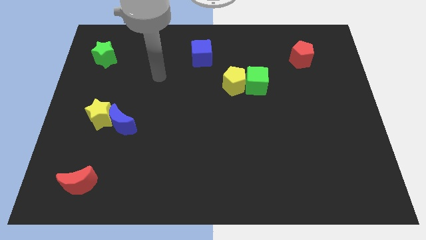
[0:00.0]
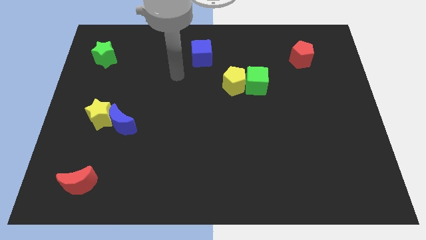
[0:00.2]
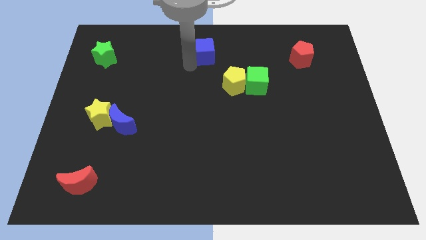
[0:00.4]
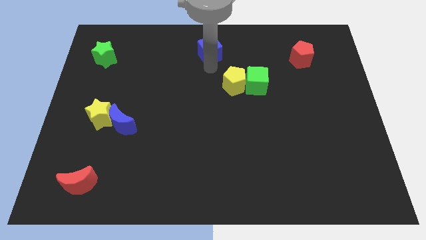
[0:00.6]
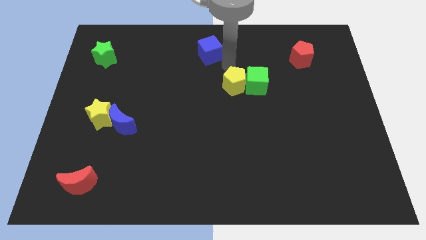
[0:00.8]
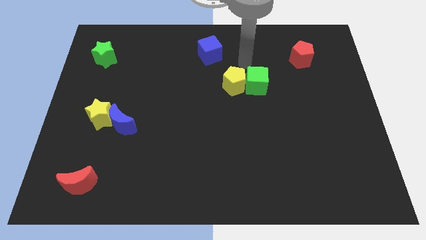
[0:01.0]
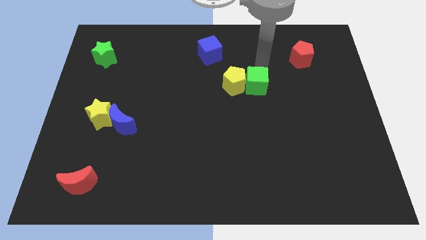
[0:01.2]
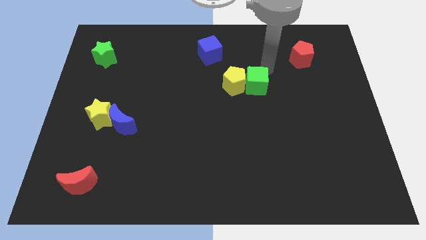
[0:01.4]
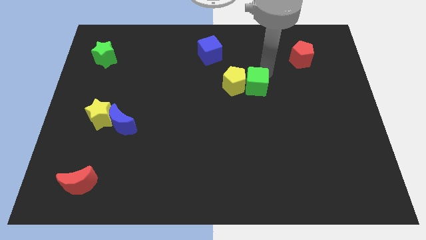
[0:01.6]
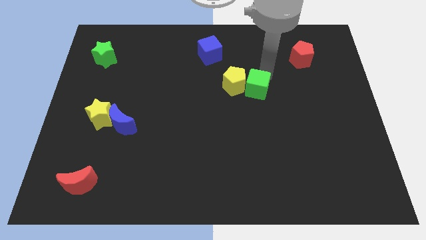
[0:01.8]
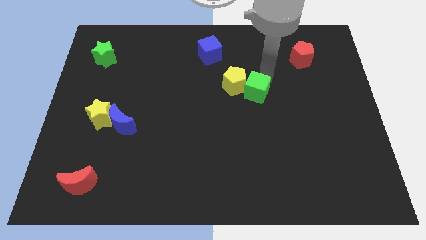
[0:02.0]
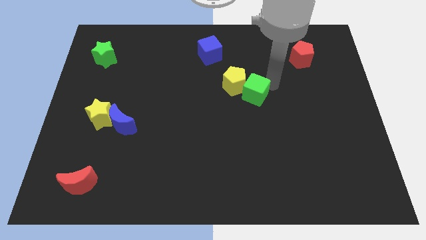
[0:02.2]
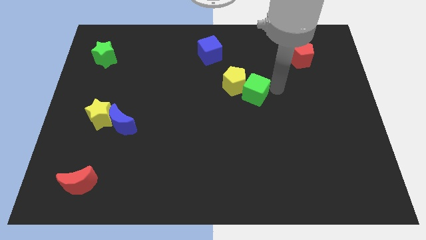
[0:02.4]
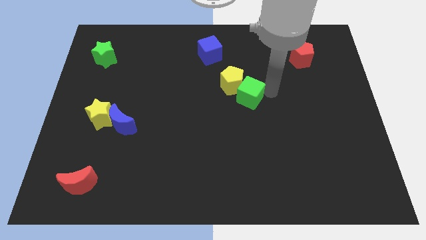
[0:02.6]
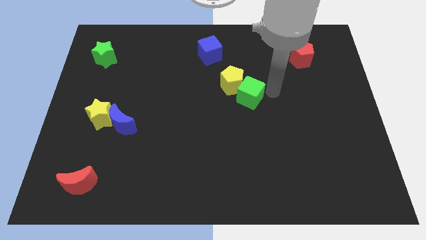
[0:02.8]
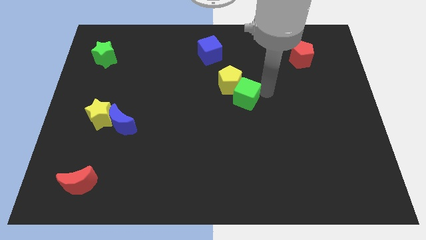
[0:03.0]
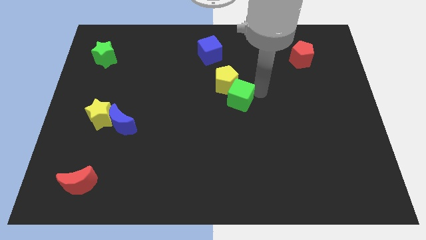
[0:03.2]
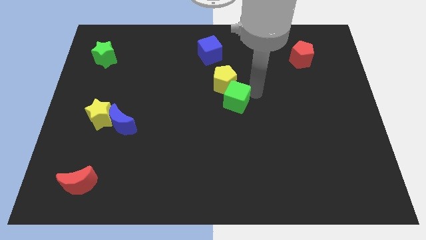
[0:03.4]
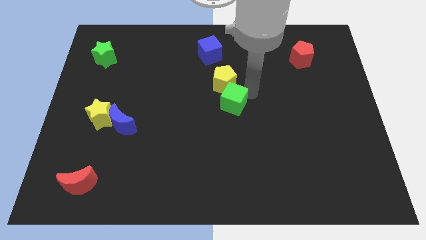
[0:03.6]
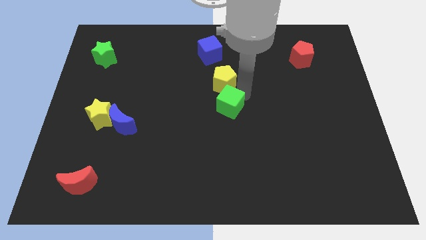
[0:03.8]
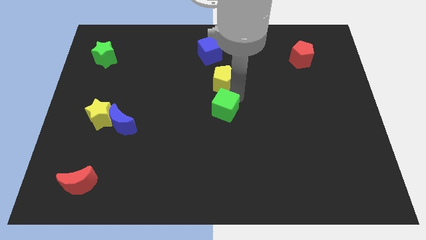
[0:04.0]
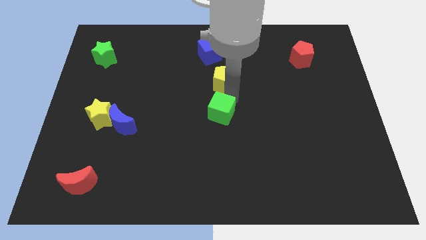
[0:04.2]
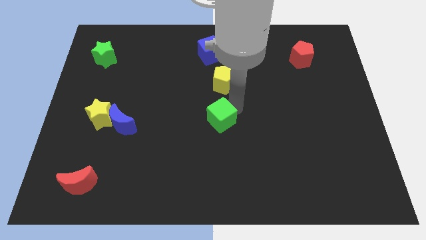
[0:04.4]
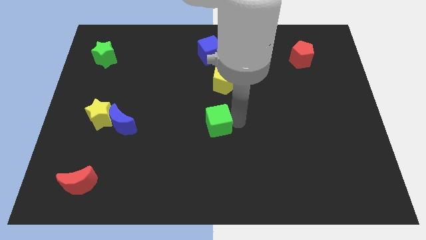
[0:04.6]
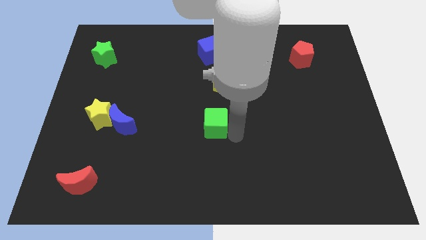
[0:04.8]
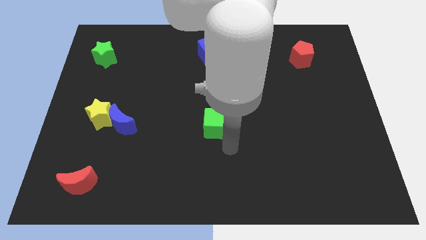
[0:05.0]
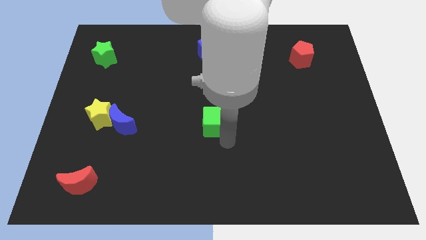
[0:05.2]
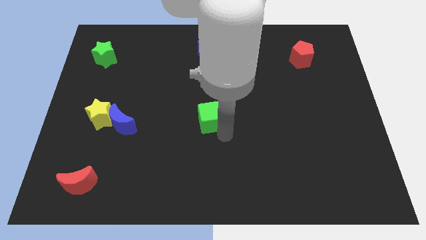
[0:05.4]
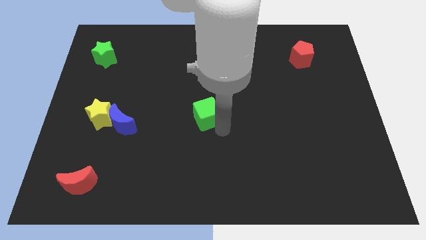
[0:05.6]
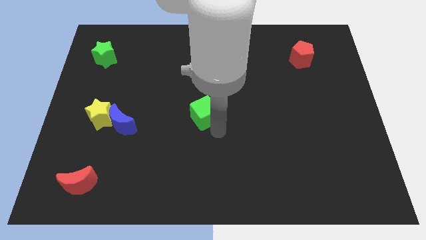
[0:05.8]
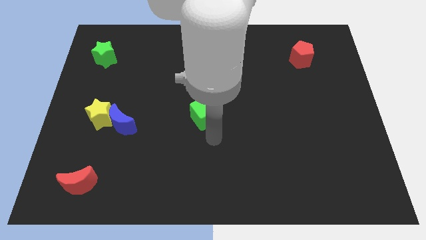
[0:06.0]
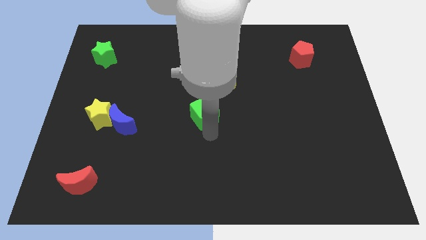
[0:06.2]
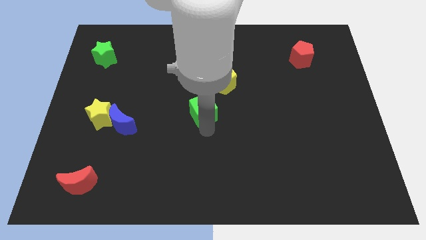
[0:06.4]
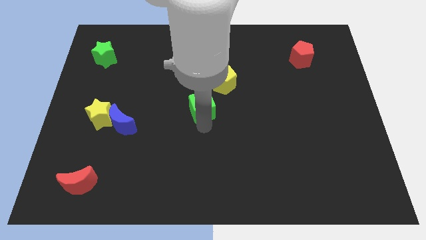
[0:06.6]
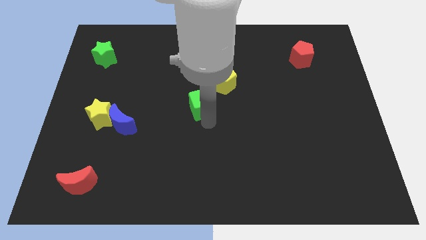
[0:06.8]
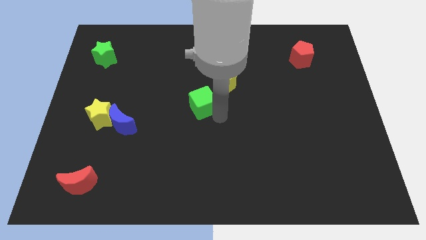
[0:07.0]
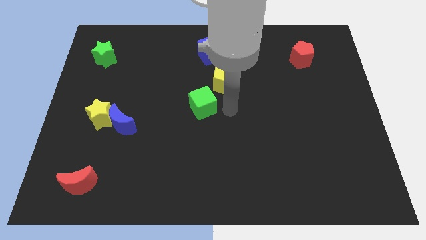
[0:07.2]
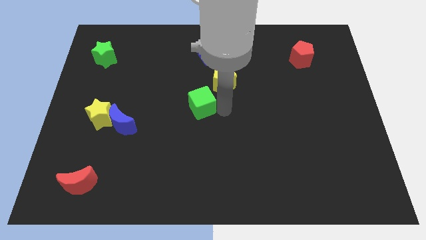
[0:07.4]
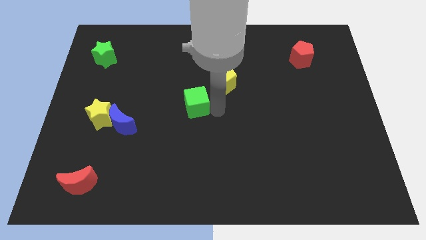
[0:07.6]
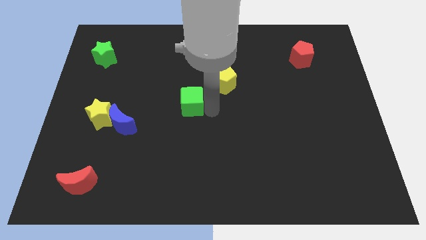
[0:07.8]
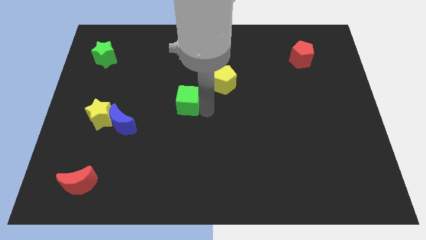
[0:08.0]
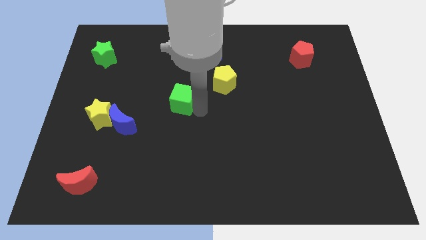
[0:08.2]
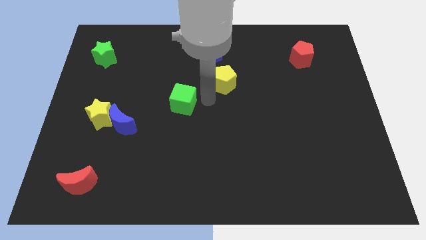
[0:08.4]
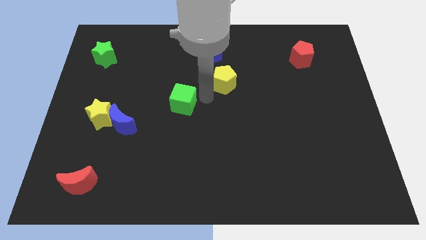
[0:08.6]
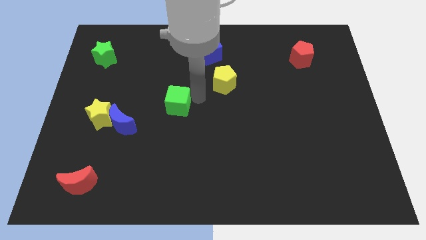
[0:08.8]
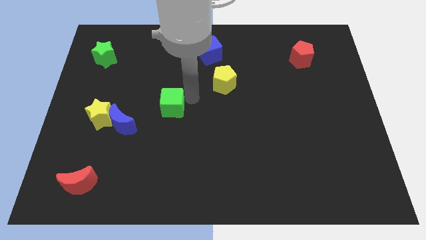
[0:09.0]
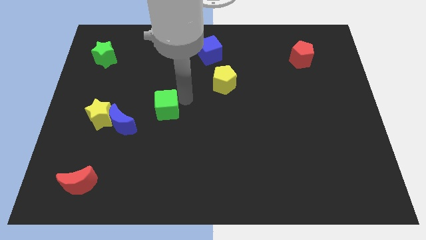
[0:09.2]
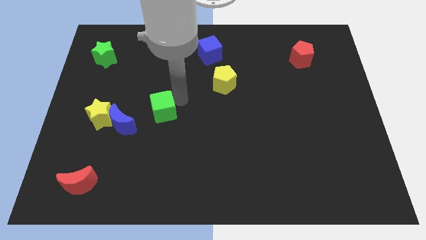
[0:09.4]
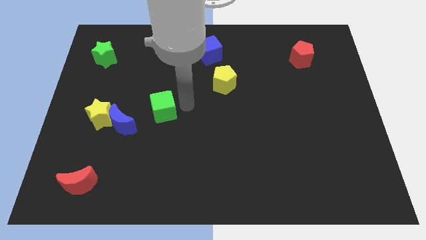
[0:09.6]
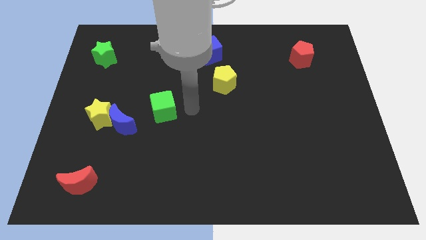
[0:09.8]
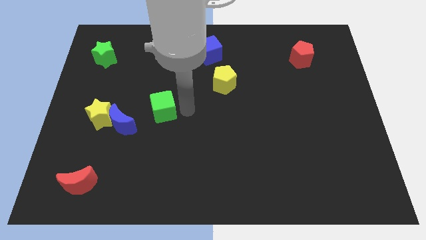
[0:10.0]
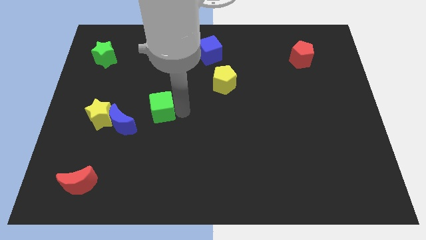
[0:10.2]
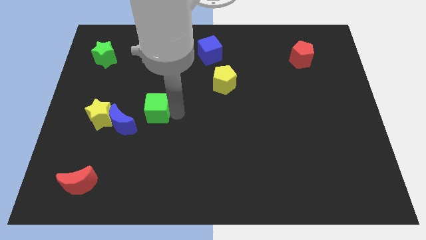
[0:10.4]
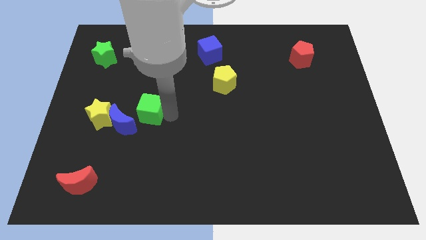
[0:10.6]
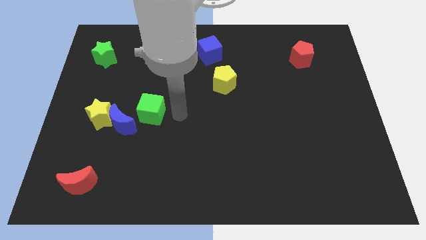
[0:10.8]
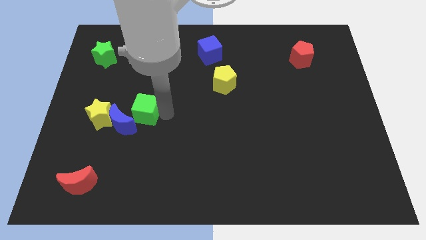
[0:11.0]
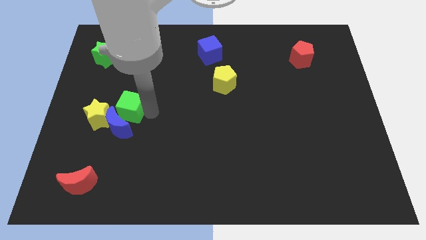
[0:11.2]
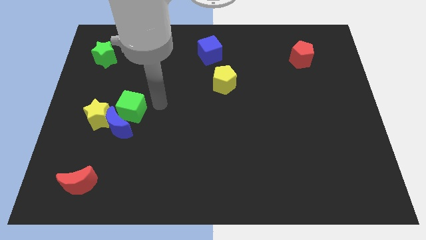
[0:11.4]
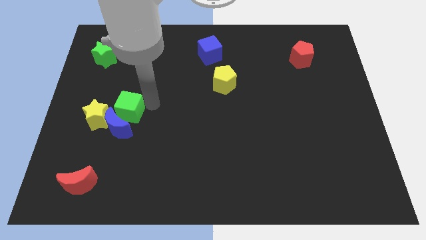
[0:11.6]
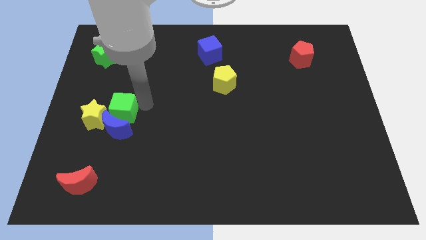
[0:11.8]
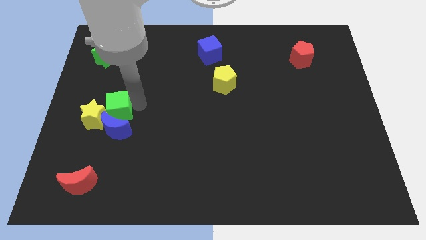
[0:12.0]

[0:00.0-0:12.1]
slide the green cube next to the yellow star
